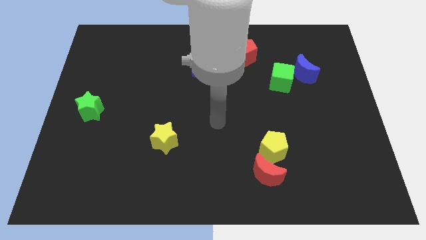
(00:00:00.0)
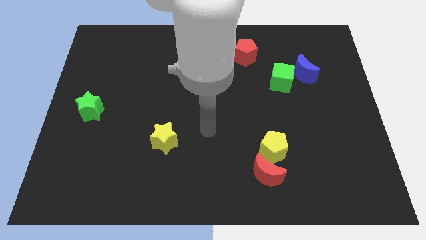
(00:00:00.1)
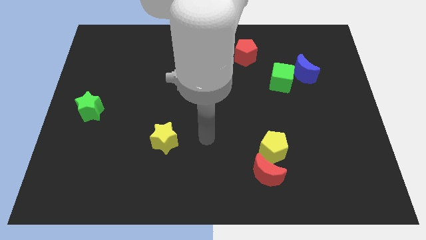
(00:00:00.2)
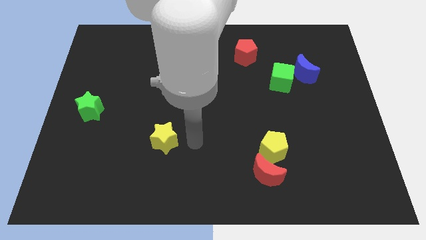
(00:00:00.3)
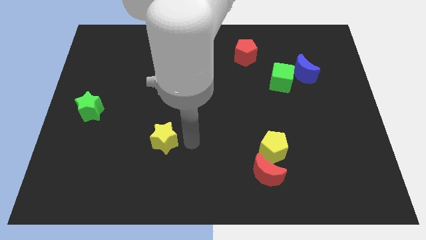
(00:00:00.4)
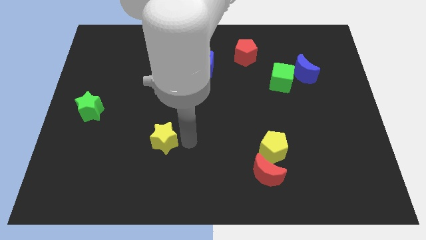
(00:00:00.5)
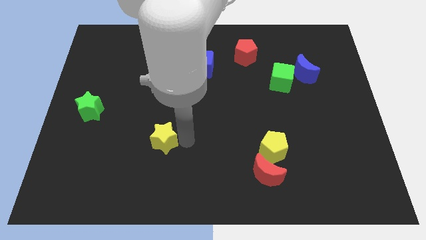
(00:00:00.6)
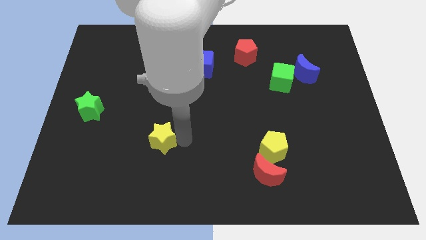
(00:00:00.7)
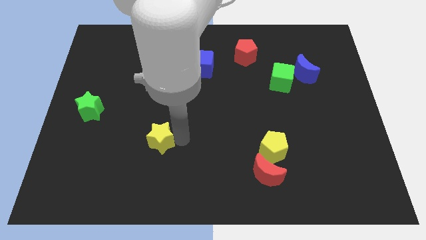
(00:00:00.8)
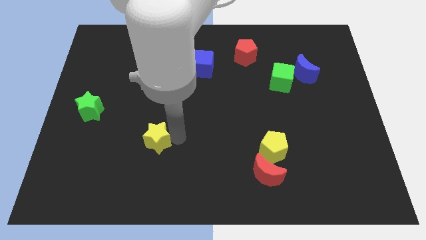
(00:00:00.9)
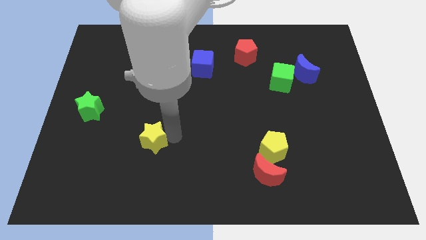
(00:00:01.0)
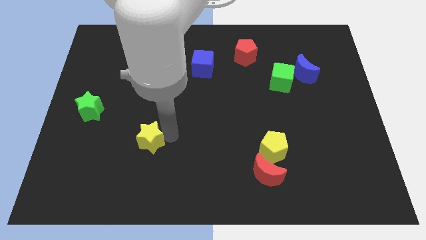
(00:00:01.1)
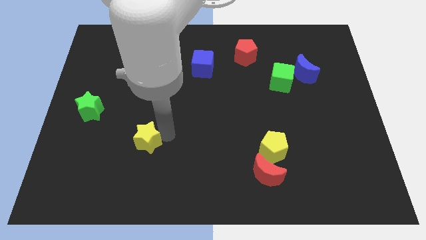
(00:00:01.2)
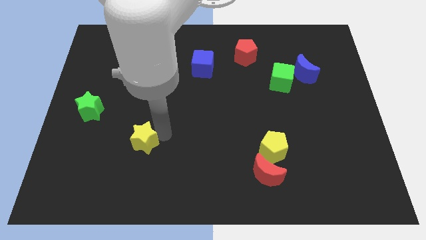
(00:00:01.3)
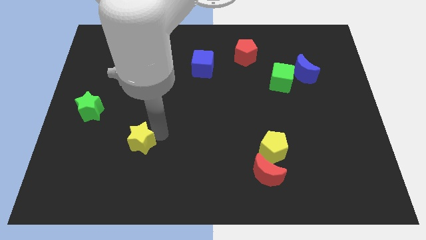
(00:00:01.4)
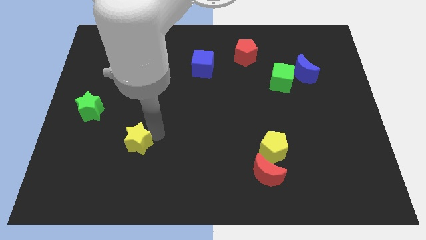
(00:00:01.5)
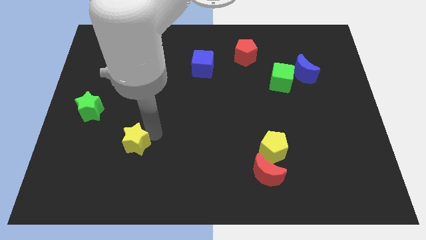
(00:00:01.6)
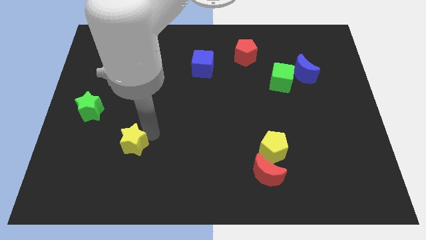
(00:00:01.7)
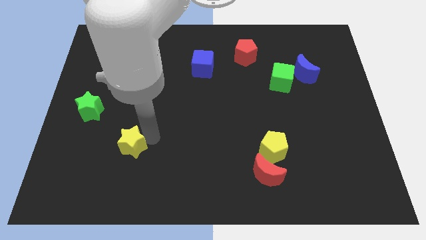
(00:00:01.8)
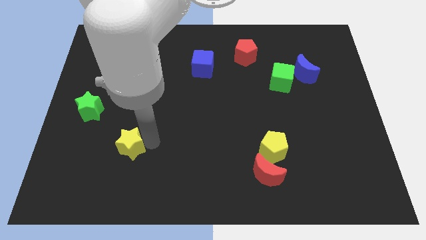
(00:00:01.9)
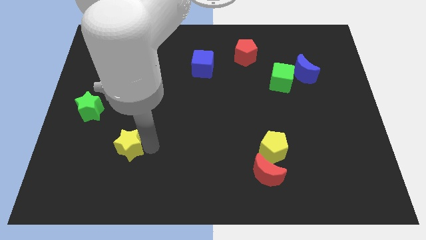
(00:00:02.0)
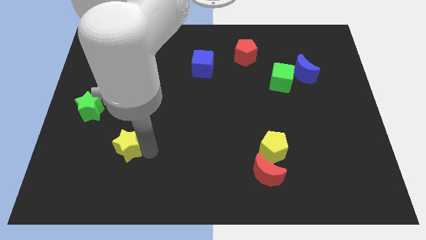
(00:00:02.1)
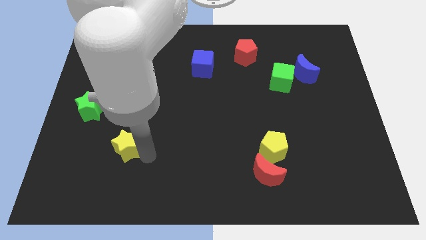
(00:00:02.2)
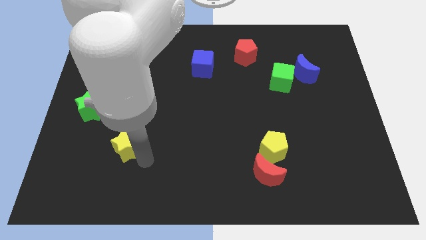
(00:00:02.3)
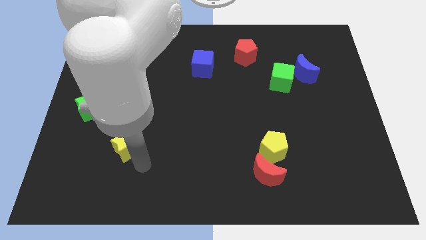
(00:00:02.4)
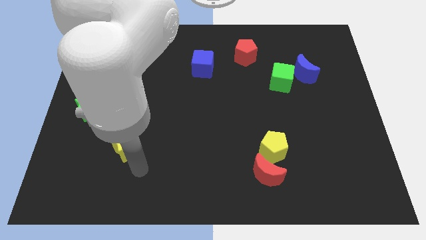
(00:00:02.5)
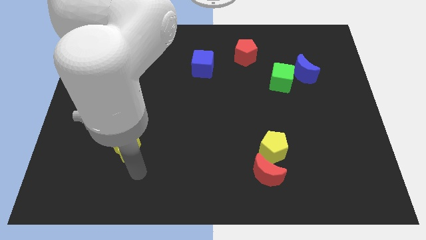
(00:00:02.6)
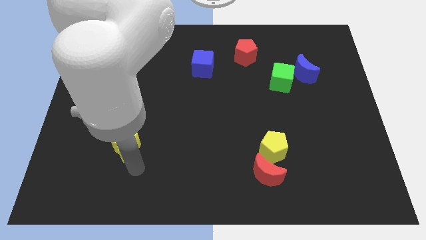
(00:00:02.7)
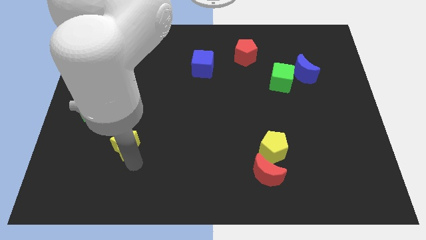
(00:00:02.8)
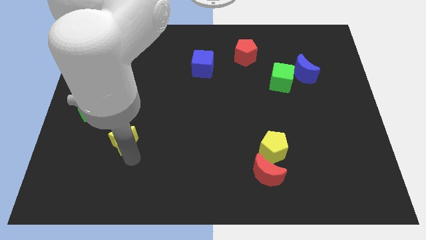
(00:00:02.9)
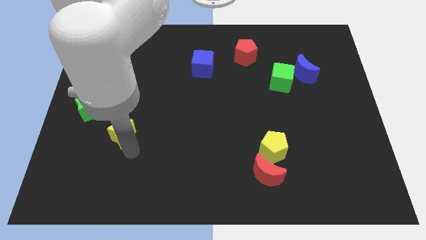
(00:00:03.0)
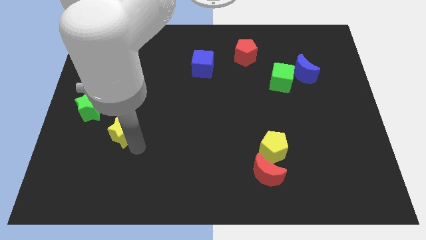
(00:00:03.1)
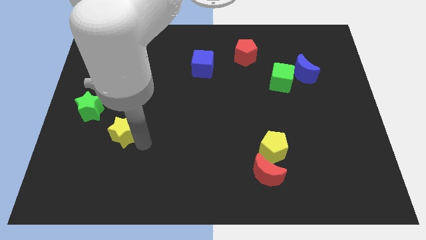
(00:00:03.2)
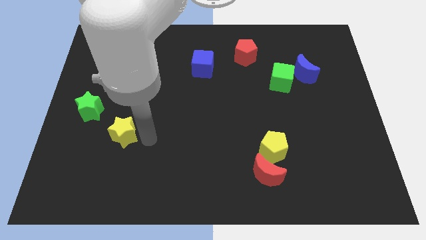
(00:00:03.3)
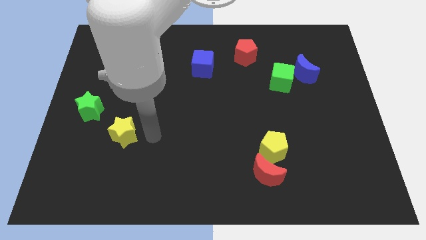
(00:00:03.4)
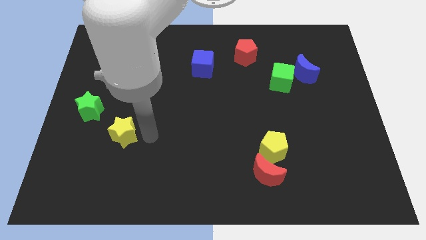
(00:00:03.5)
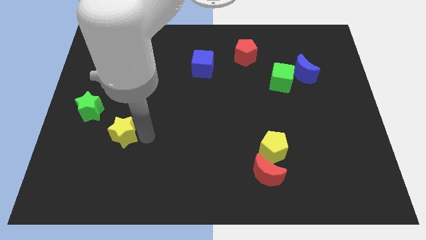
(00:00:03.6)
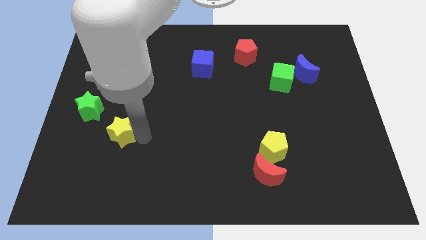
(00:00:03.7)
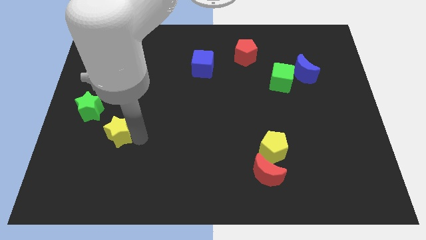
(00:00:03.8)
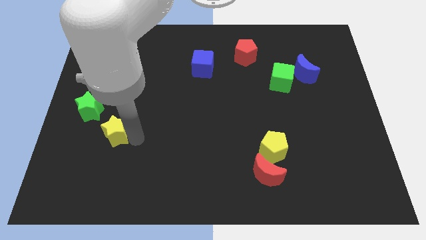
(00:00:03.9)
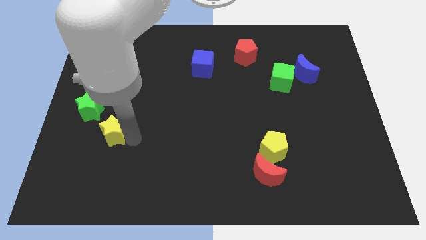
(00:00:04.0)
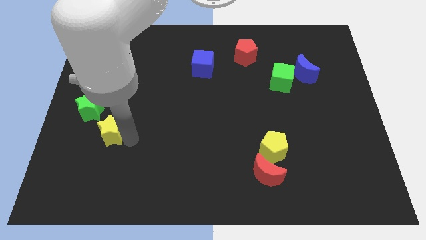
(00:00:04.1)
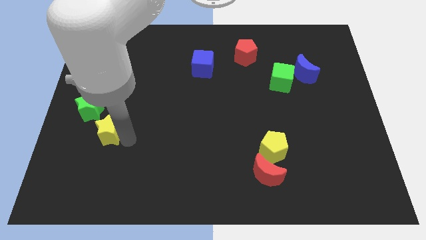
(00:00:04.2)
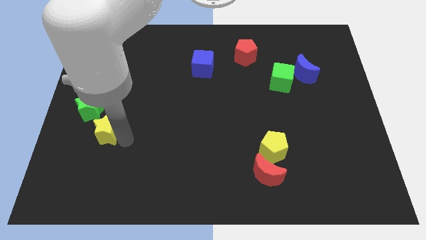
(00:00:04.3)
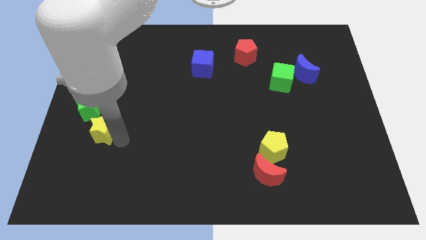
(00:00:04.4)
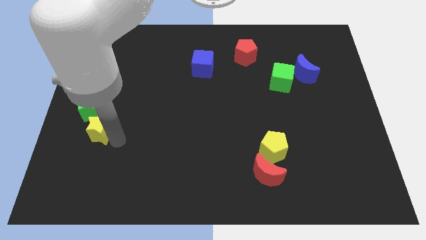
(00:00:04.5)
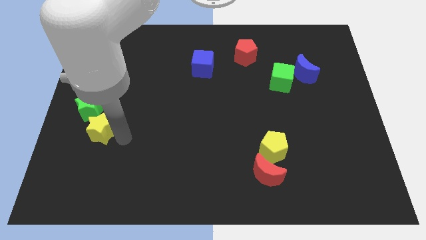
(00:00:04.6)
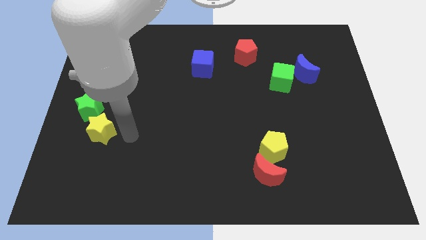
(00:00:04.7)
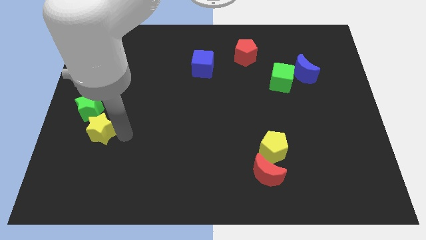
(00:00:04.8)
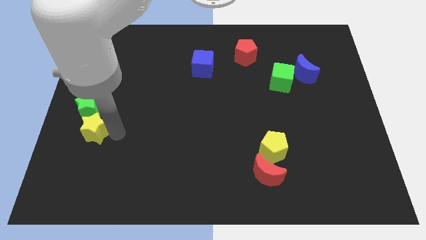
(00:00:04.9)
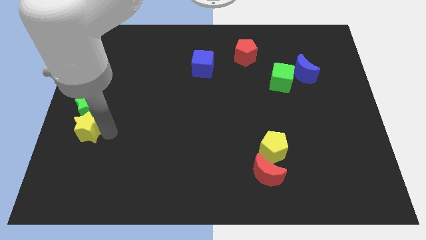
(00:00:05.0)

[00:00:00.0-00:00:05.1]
put the yellow star to the center left

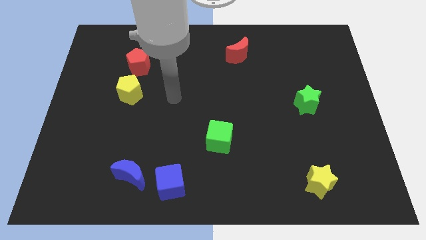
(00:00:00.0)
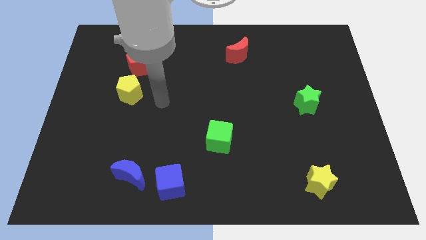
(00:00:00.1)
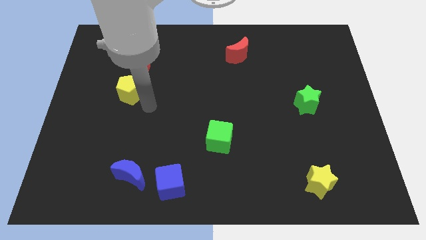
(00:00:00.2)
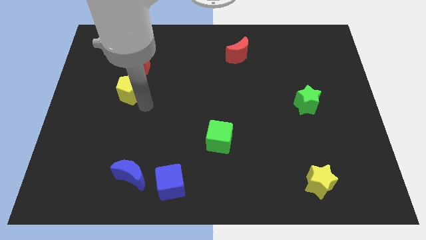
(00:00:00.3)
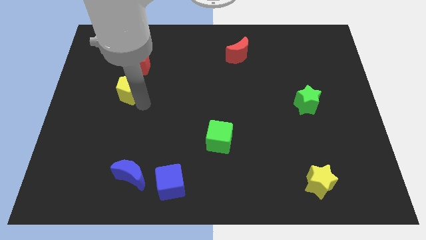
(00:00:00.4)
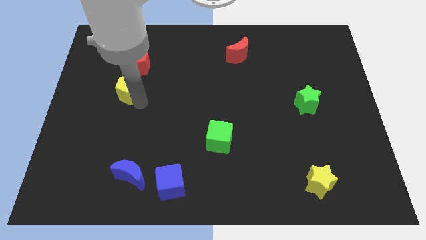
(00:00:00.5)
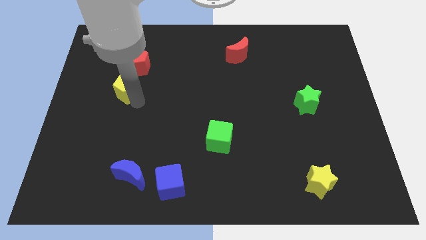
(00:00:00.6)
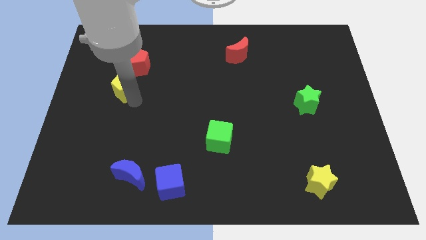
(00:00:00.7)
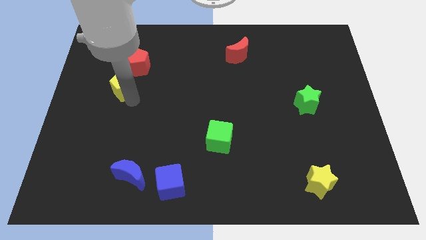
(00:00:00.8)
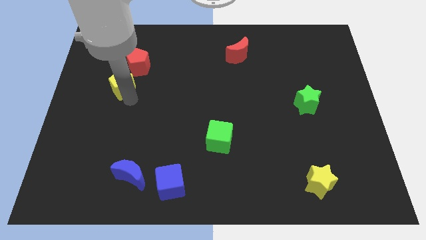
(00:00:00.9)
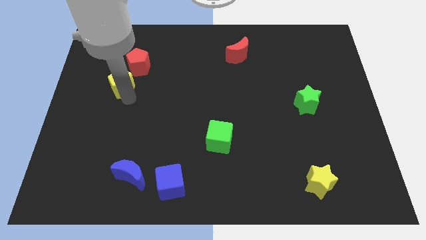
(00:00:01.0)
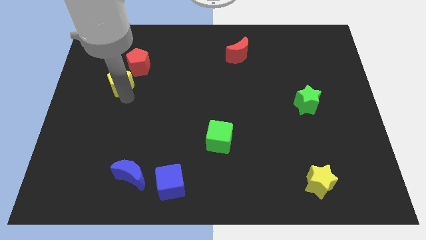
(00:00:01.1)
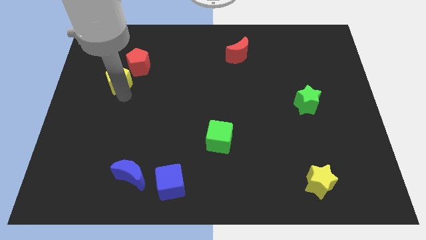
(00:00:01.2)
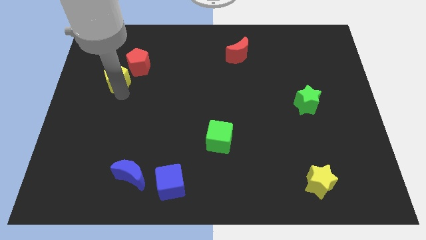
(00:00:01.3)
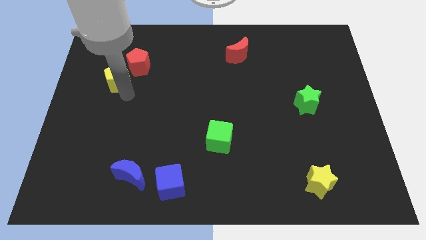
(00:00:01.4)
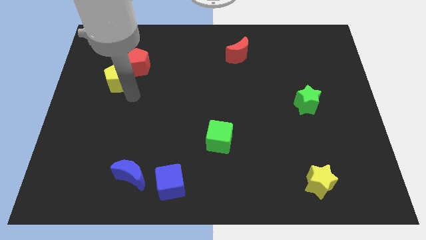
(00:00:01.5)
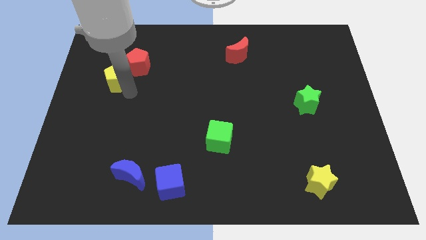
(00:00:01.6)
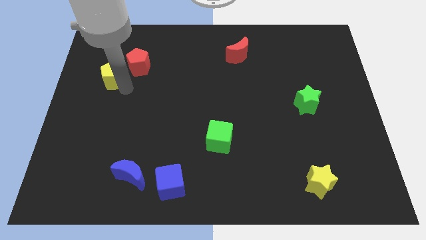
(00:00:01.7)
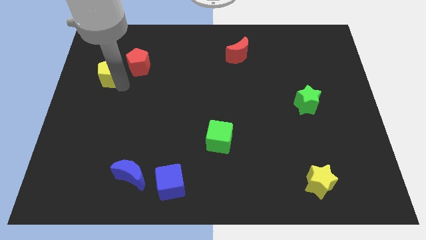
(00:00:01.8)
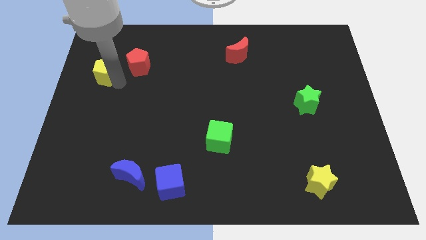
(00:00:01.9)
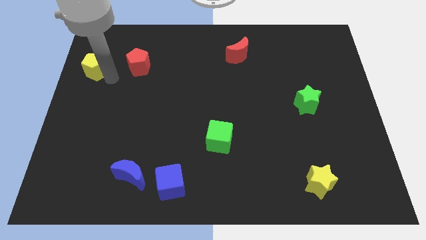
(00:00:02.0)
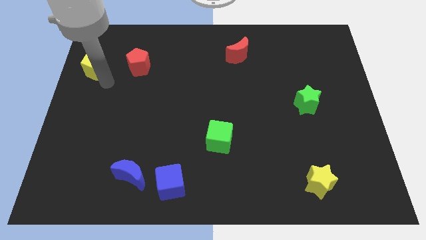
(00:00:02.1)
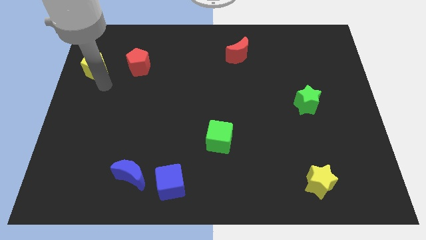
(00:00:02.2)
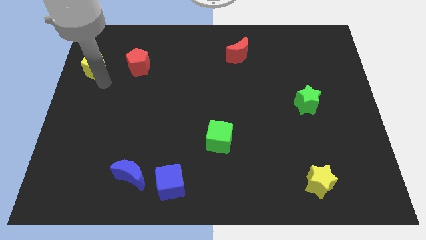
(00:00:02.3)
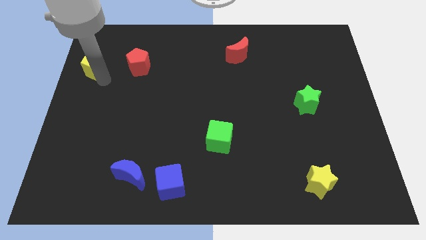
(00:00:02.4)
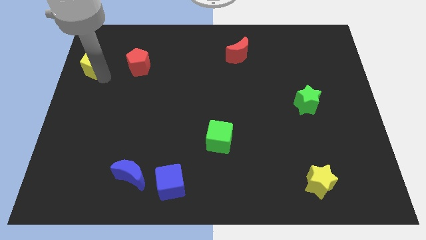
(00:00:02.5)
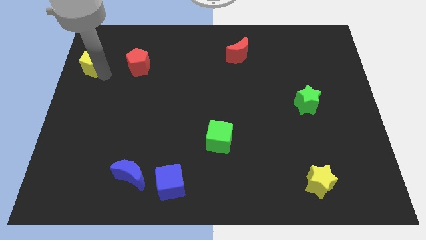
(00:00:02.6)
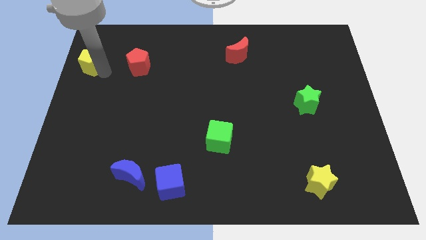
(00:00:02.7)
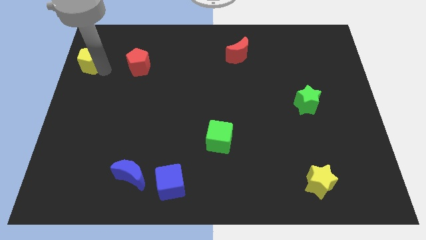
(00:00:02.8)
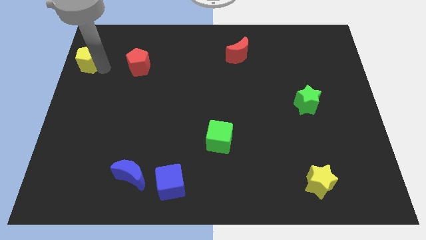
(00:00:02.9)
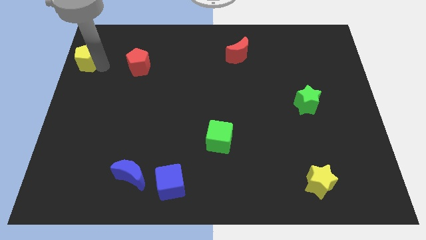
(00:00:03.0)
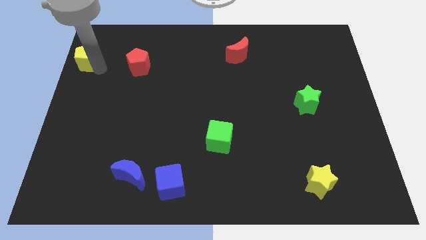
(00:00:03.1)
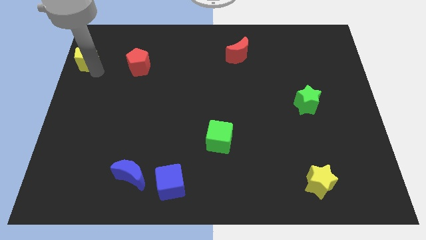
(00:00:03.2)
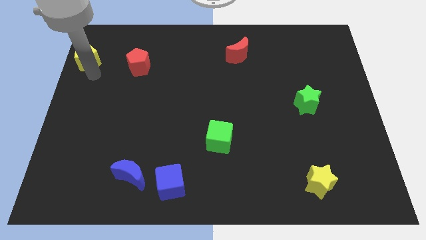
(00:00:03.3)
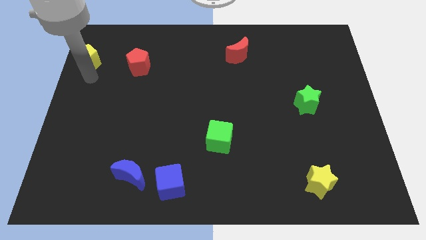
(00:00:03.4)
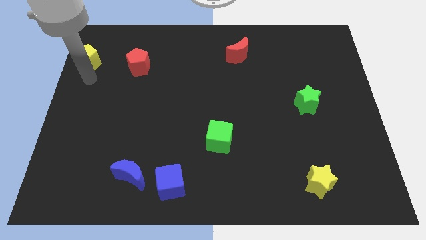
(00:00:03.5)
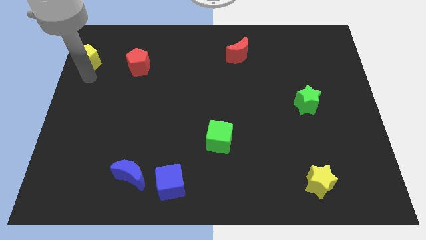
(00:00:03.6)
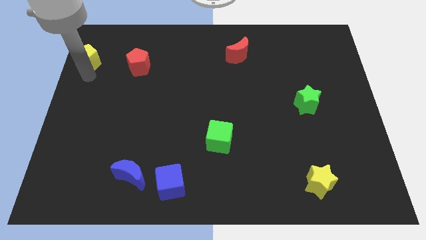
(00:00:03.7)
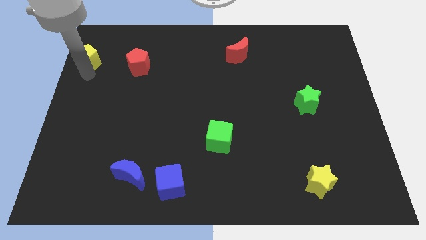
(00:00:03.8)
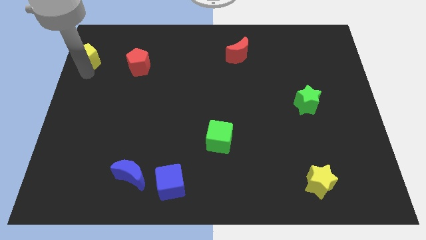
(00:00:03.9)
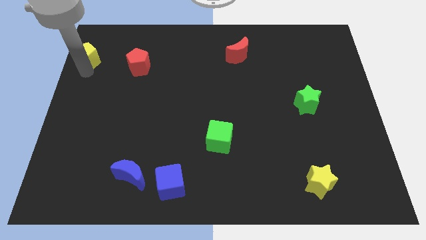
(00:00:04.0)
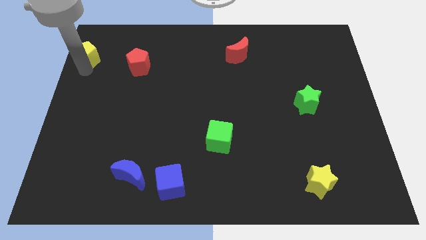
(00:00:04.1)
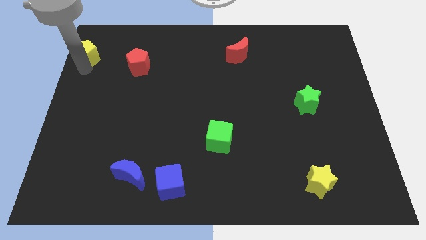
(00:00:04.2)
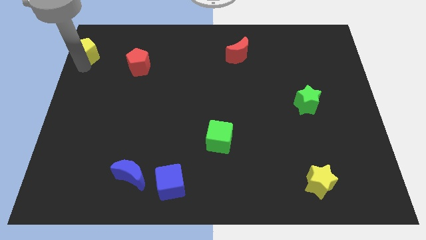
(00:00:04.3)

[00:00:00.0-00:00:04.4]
put the yellow pentagon to the upper left corner
